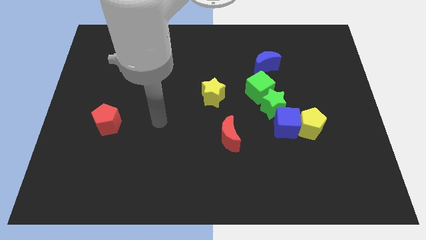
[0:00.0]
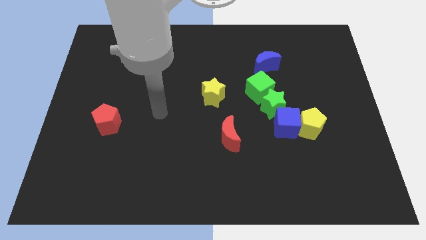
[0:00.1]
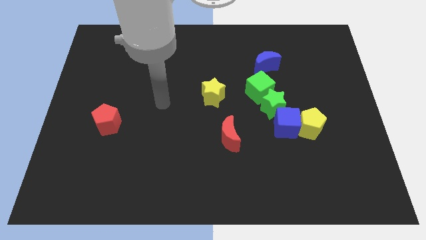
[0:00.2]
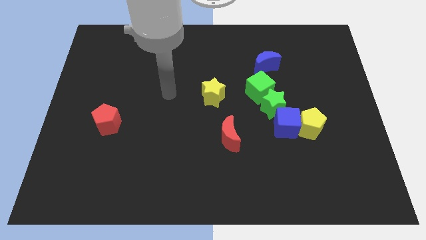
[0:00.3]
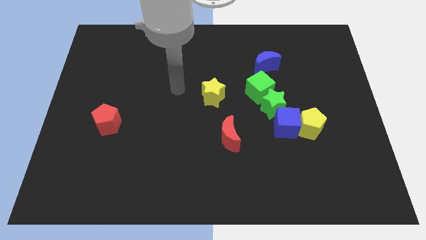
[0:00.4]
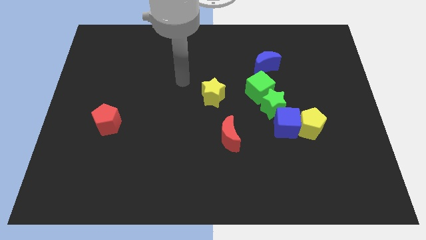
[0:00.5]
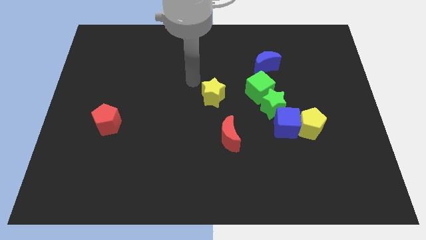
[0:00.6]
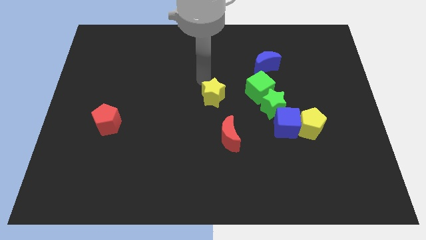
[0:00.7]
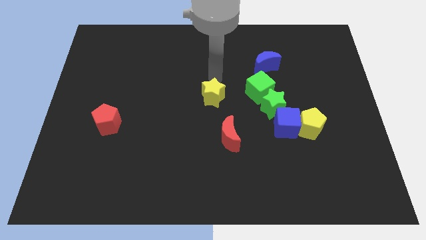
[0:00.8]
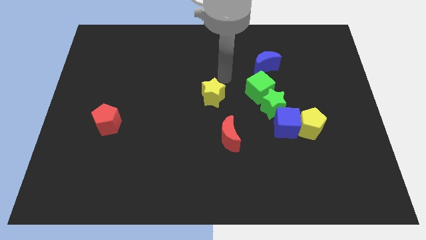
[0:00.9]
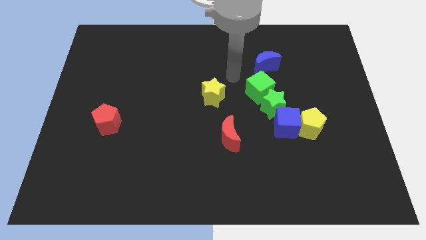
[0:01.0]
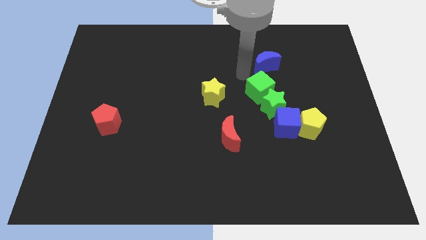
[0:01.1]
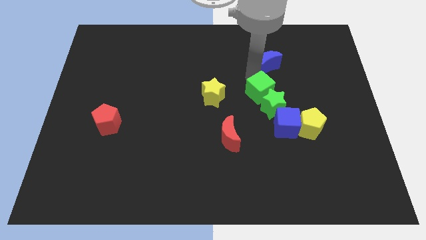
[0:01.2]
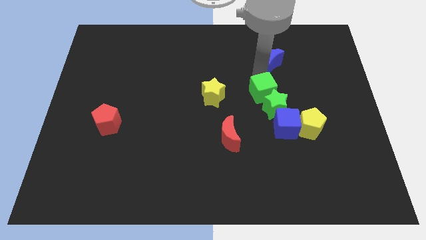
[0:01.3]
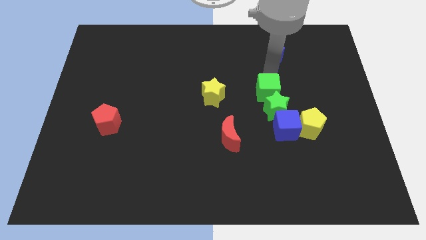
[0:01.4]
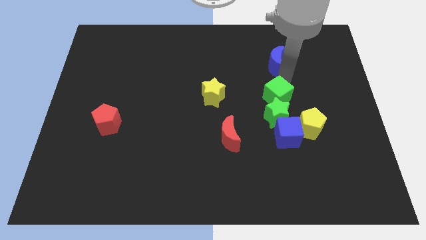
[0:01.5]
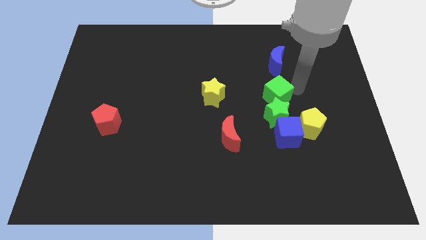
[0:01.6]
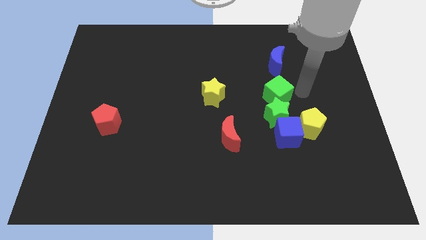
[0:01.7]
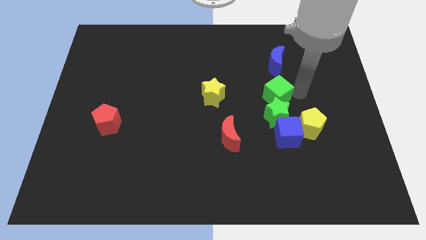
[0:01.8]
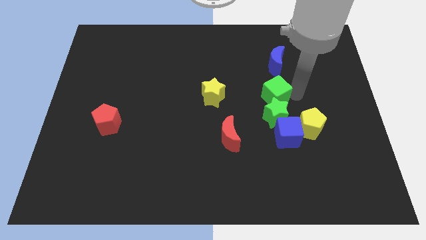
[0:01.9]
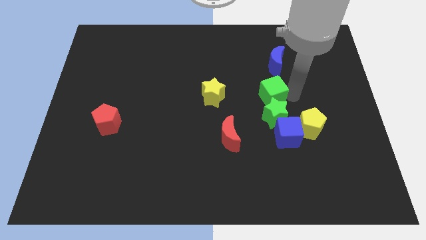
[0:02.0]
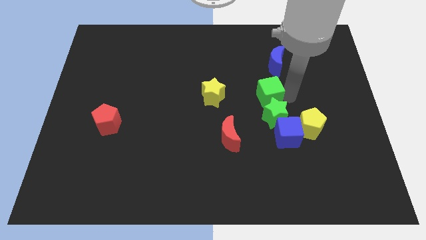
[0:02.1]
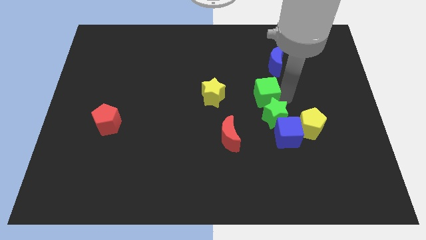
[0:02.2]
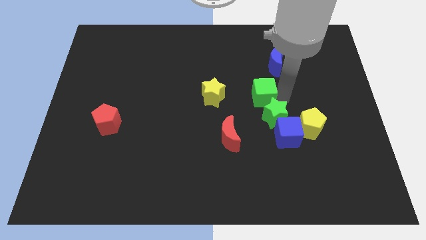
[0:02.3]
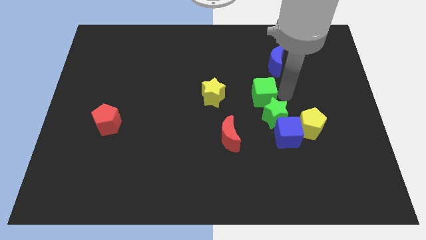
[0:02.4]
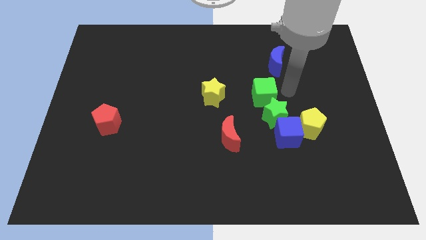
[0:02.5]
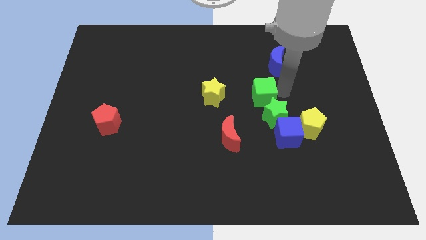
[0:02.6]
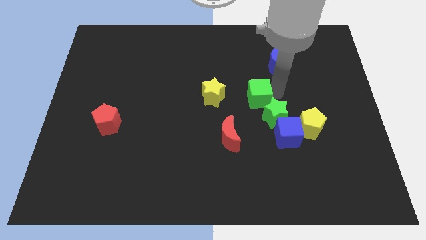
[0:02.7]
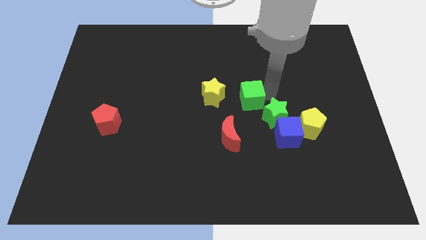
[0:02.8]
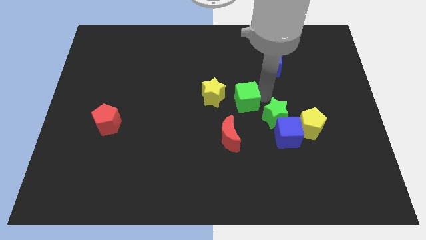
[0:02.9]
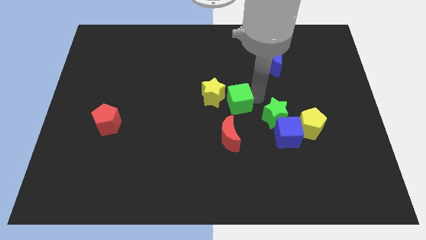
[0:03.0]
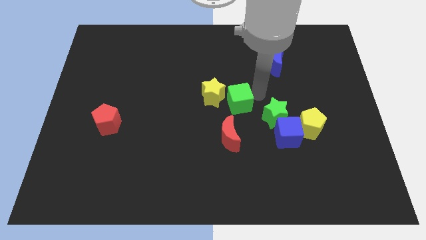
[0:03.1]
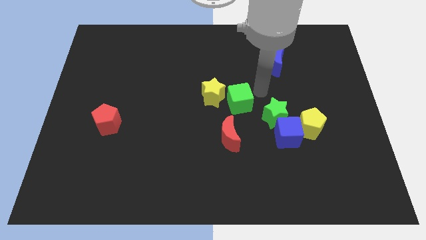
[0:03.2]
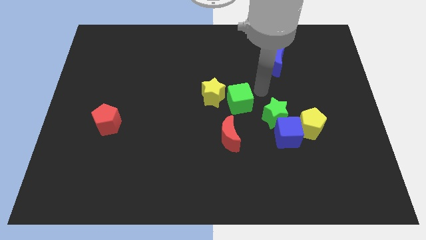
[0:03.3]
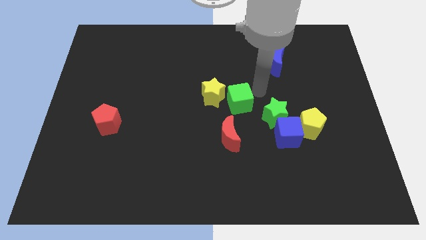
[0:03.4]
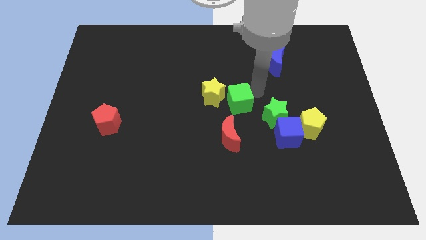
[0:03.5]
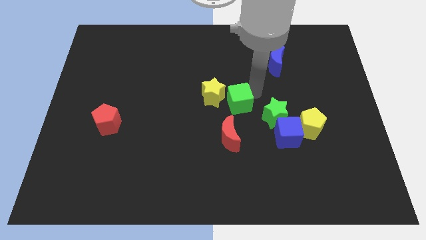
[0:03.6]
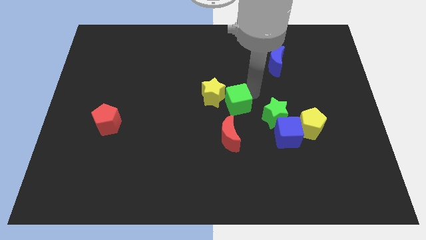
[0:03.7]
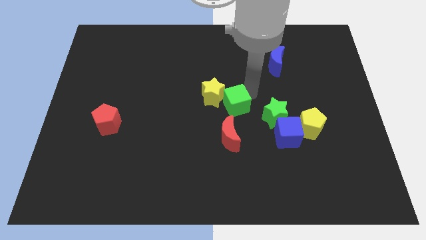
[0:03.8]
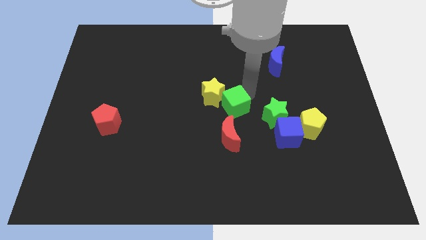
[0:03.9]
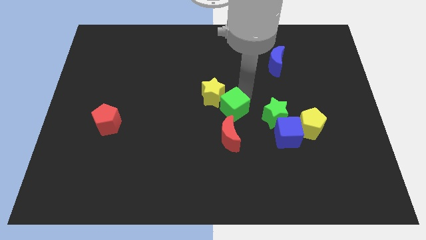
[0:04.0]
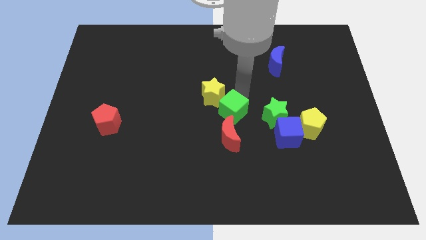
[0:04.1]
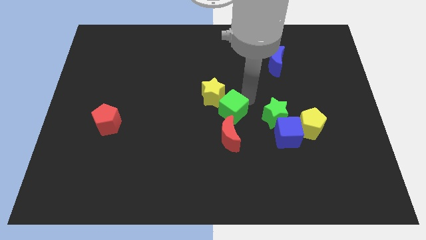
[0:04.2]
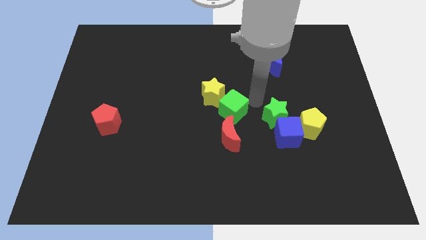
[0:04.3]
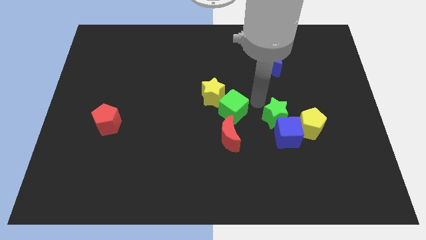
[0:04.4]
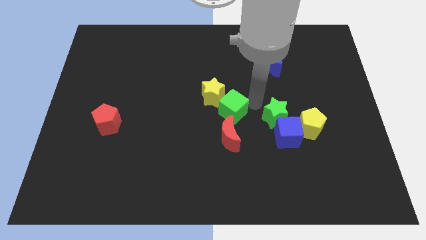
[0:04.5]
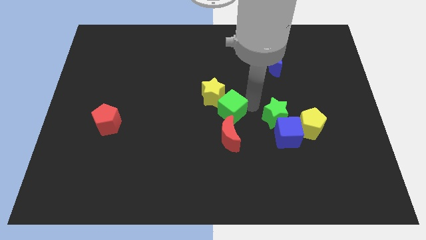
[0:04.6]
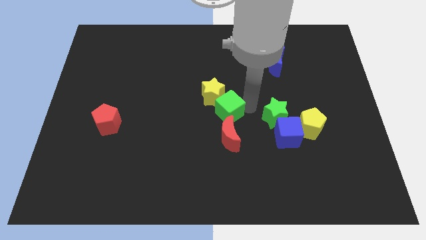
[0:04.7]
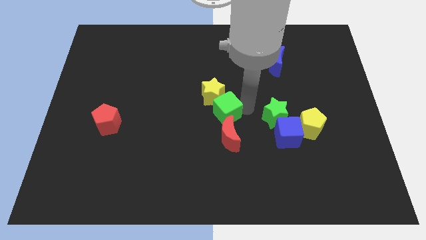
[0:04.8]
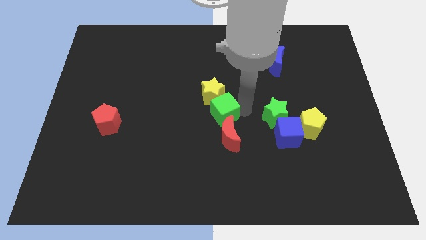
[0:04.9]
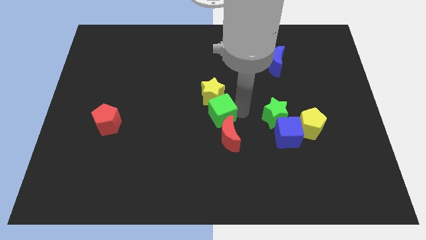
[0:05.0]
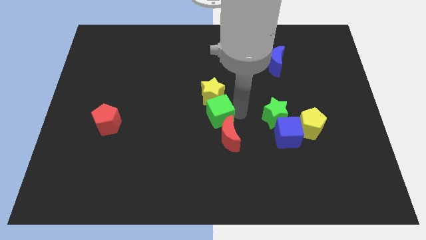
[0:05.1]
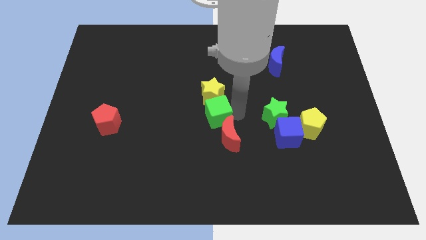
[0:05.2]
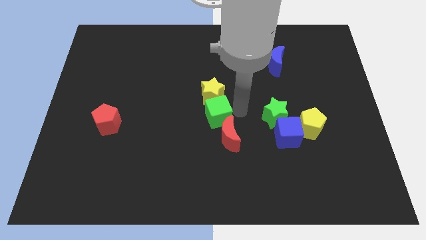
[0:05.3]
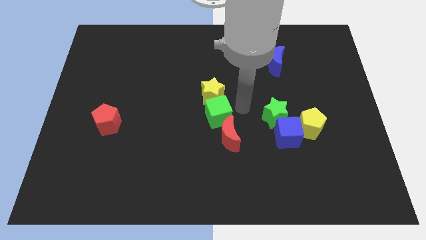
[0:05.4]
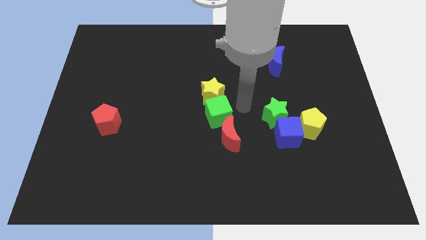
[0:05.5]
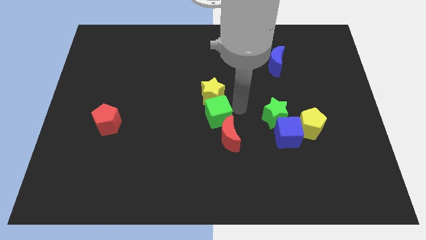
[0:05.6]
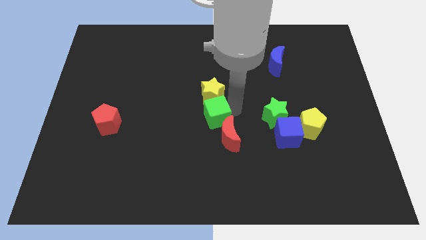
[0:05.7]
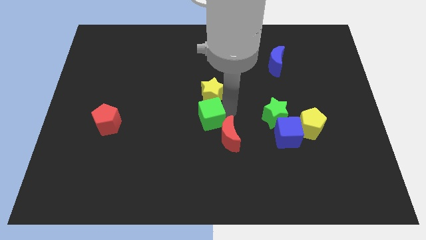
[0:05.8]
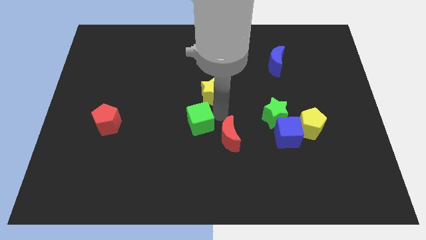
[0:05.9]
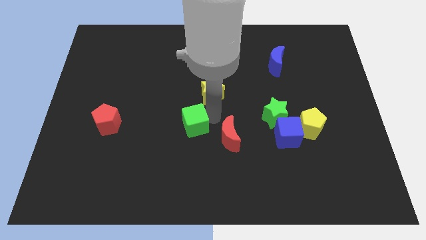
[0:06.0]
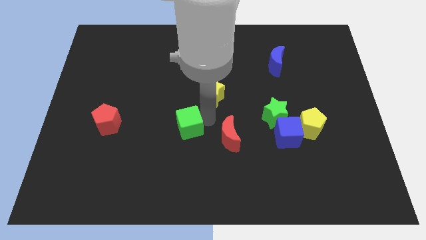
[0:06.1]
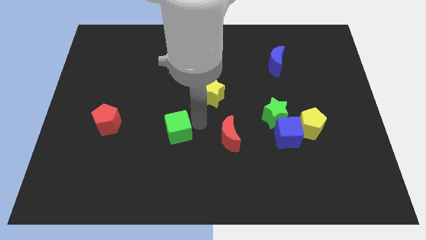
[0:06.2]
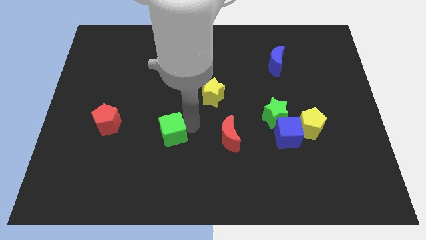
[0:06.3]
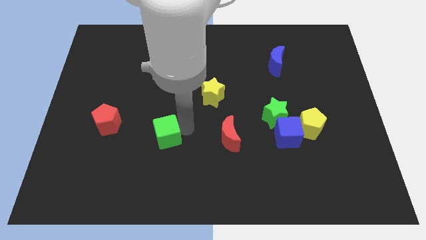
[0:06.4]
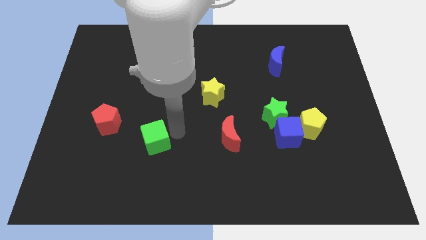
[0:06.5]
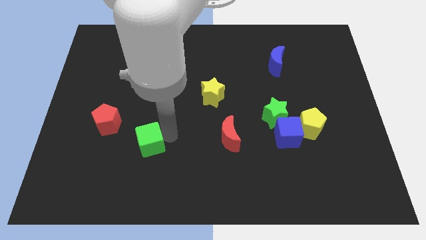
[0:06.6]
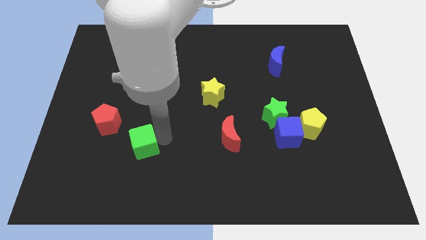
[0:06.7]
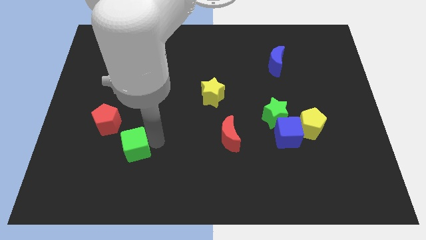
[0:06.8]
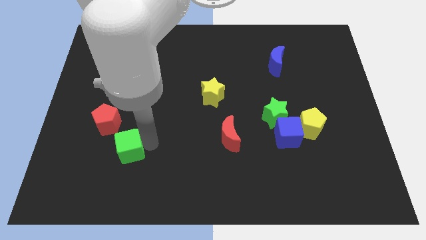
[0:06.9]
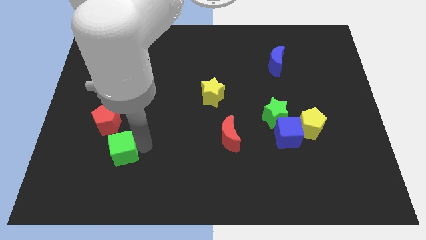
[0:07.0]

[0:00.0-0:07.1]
slide the green cube below the red pentagon
